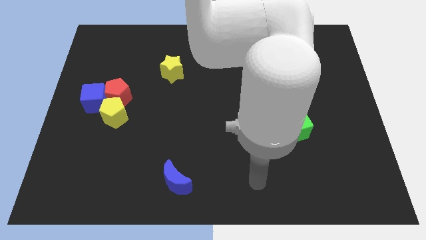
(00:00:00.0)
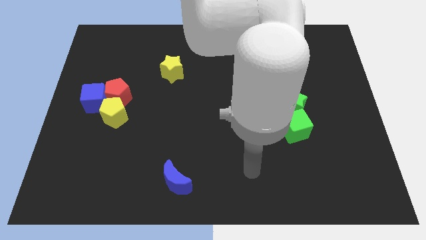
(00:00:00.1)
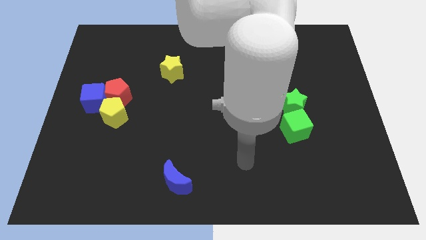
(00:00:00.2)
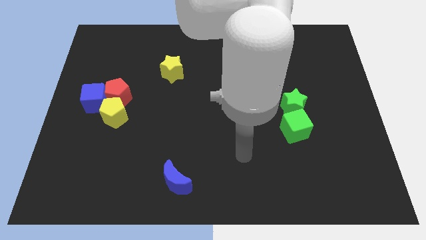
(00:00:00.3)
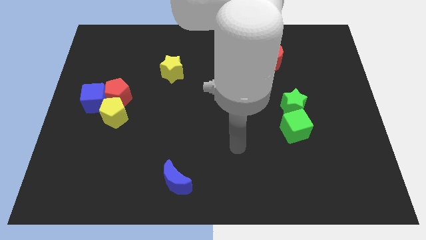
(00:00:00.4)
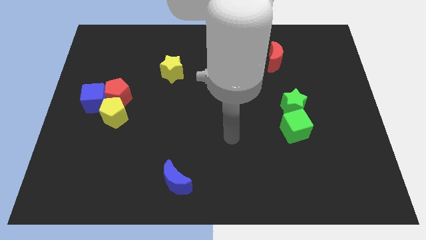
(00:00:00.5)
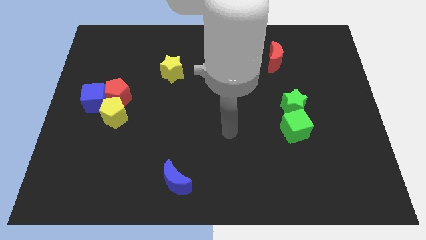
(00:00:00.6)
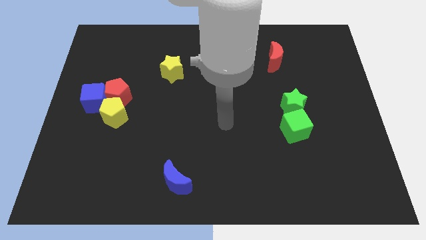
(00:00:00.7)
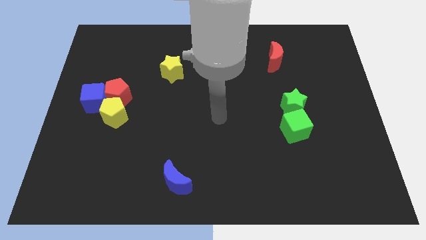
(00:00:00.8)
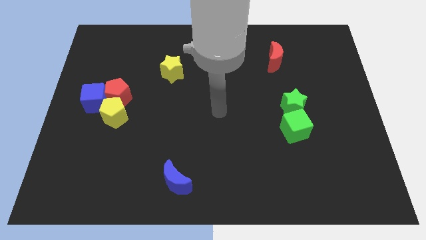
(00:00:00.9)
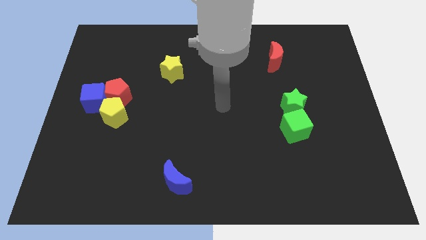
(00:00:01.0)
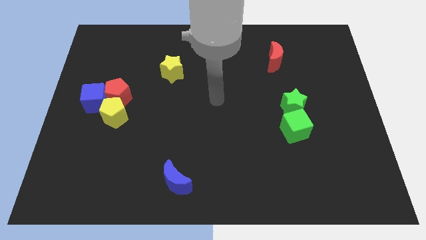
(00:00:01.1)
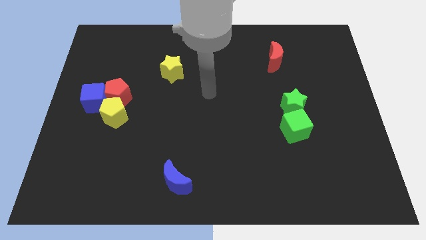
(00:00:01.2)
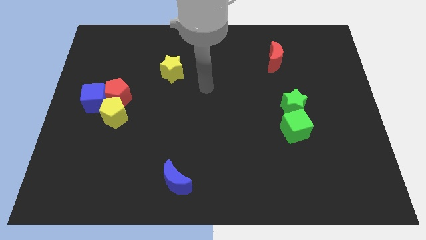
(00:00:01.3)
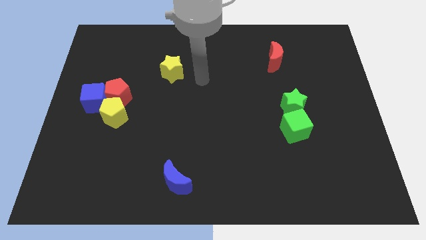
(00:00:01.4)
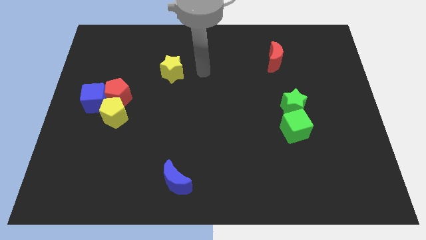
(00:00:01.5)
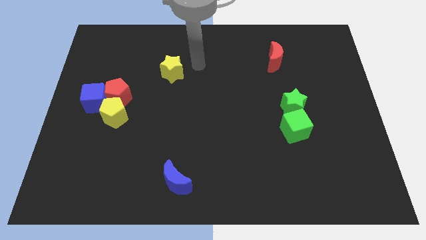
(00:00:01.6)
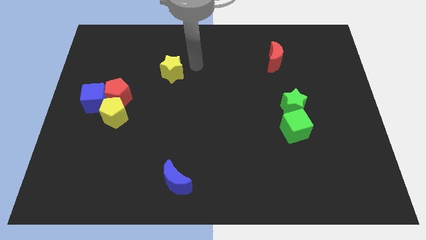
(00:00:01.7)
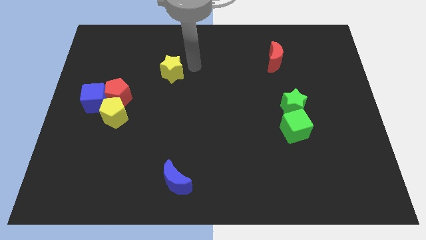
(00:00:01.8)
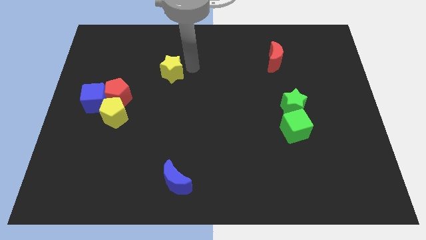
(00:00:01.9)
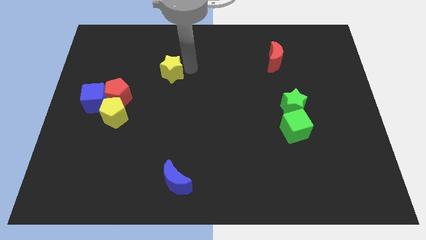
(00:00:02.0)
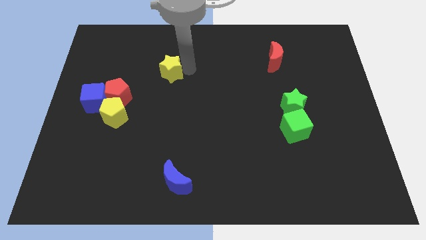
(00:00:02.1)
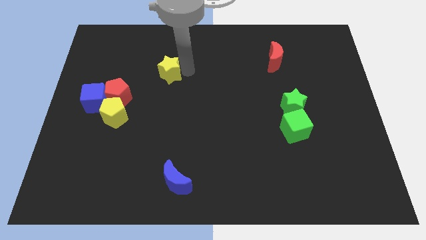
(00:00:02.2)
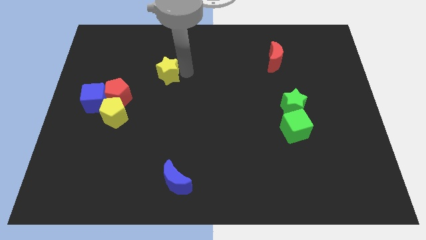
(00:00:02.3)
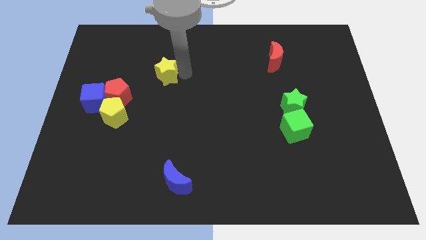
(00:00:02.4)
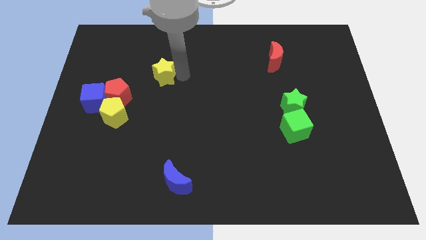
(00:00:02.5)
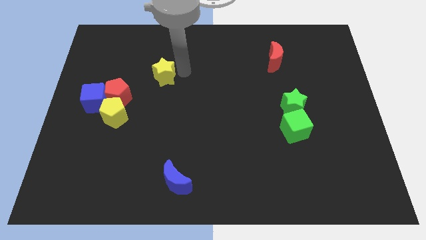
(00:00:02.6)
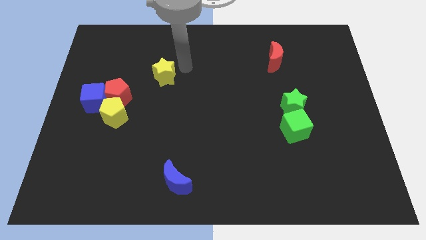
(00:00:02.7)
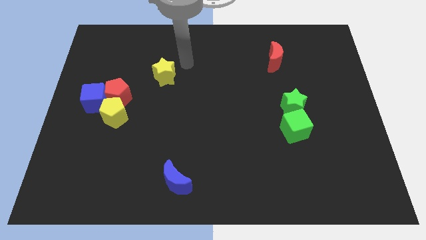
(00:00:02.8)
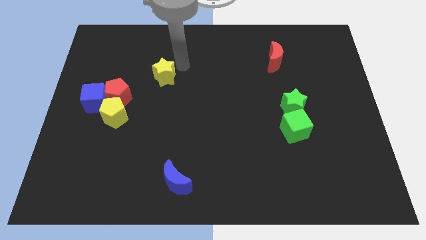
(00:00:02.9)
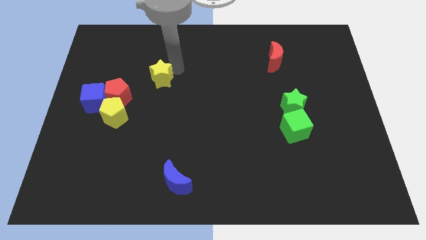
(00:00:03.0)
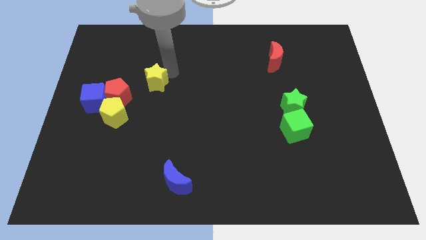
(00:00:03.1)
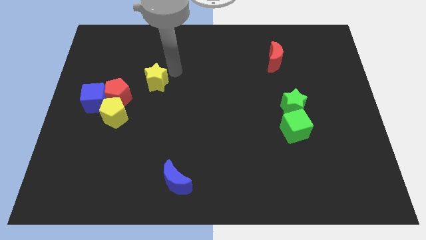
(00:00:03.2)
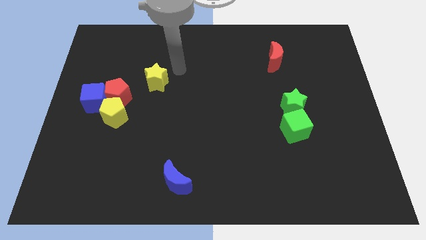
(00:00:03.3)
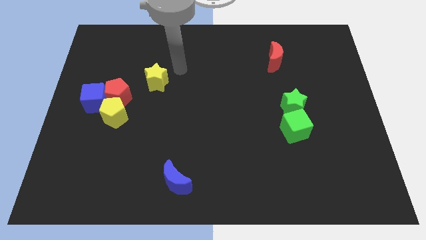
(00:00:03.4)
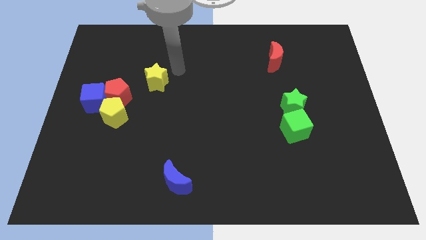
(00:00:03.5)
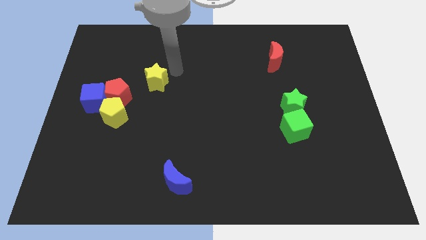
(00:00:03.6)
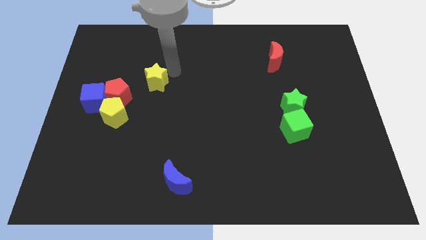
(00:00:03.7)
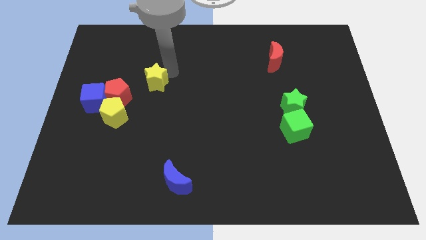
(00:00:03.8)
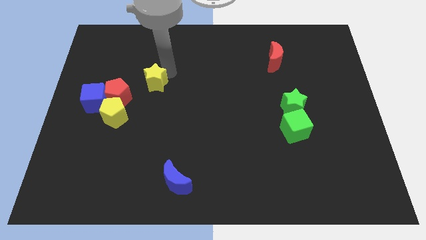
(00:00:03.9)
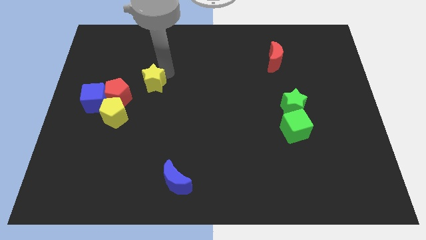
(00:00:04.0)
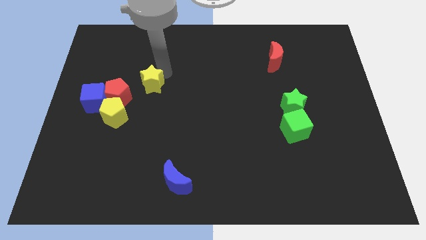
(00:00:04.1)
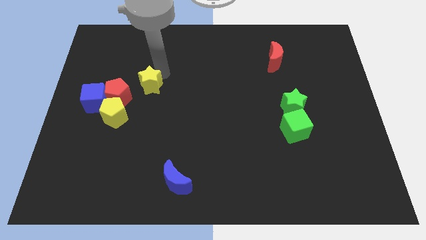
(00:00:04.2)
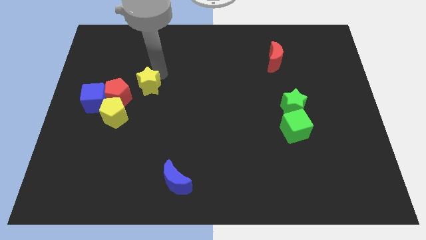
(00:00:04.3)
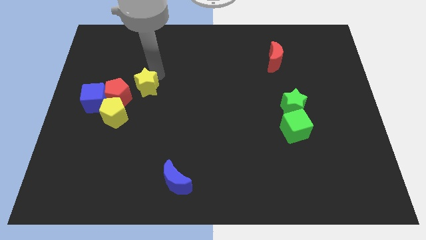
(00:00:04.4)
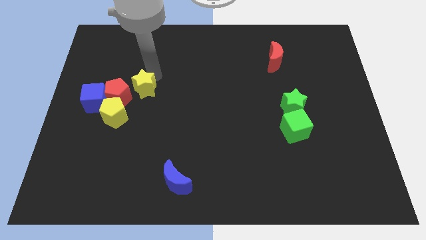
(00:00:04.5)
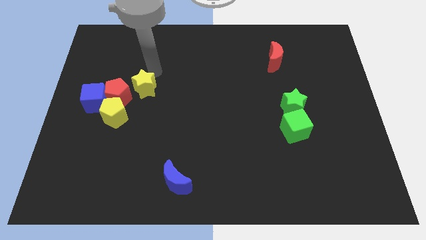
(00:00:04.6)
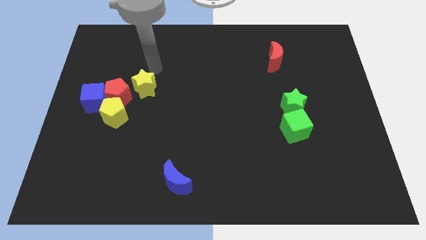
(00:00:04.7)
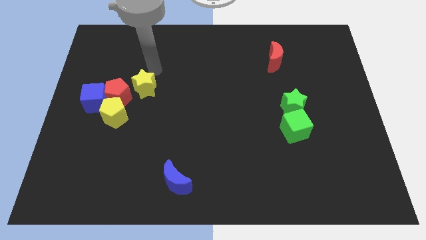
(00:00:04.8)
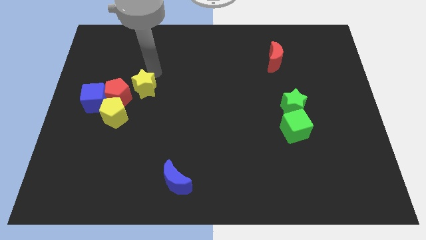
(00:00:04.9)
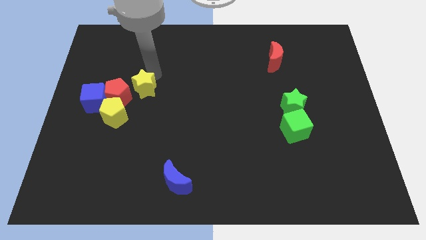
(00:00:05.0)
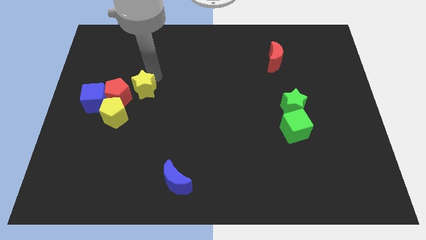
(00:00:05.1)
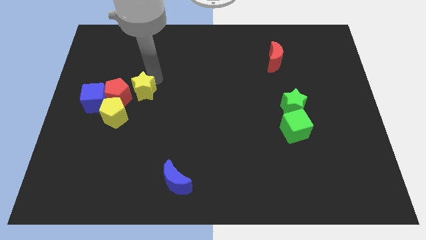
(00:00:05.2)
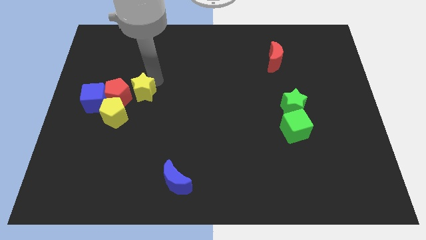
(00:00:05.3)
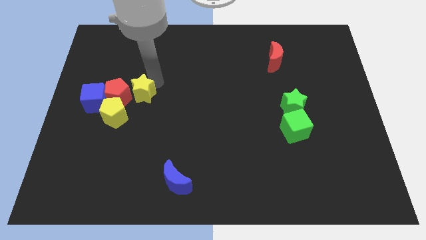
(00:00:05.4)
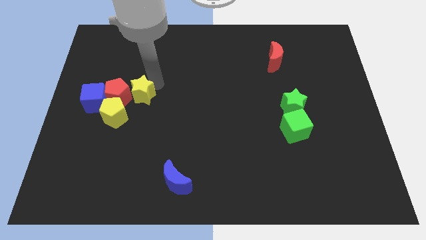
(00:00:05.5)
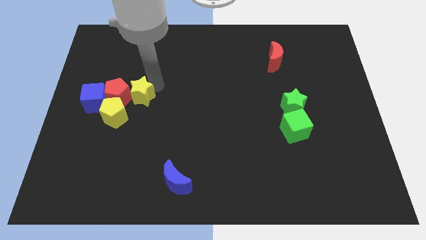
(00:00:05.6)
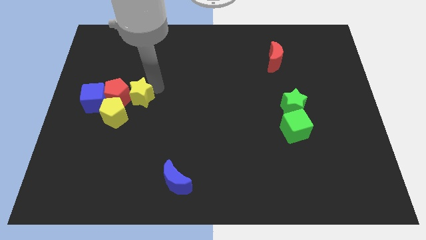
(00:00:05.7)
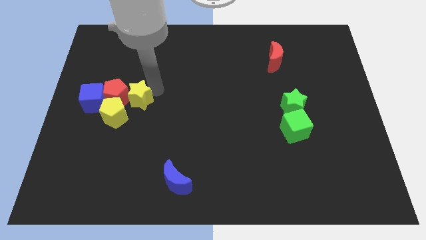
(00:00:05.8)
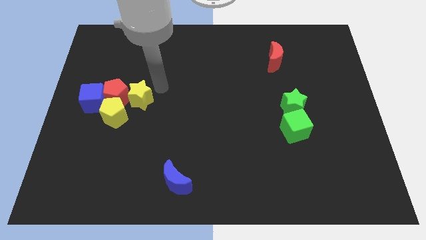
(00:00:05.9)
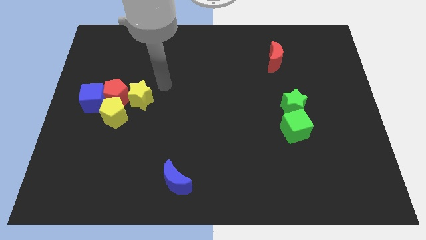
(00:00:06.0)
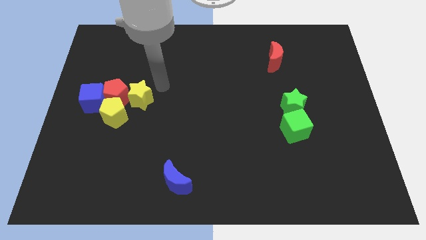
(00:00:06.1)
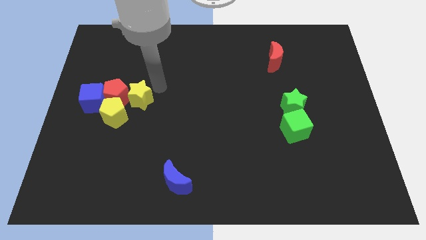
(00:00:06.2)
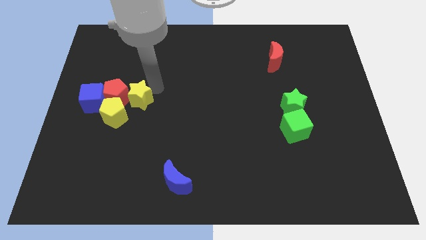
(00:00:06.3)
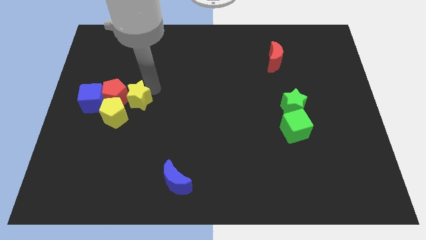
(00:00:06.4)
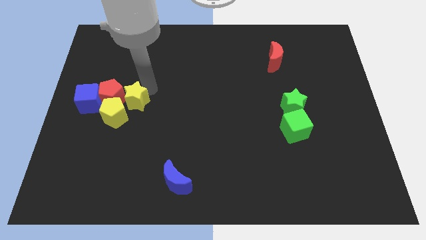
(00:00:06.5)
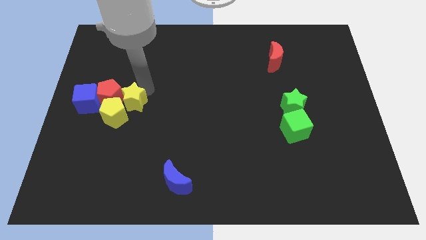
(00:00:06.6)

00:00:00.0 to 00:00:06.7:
slide the yellow star towards the yellow pentagon

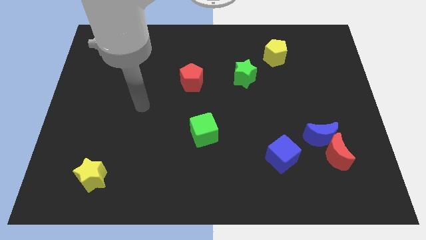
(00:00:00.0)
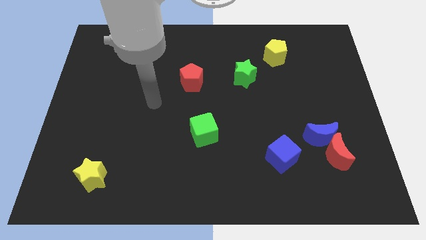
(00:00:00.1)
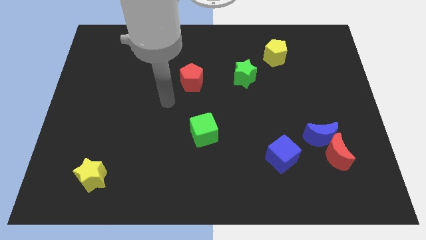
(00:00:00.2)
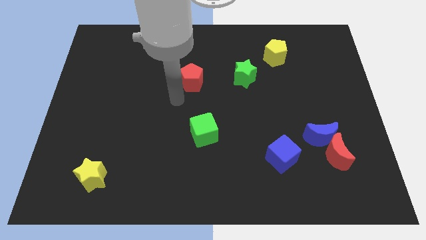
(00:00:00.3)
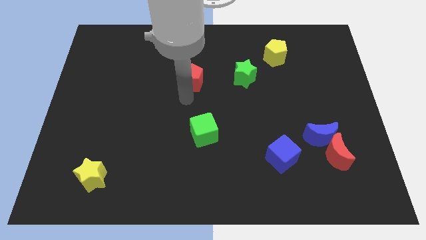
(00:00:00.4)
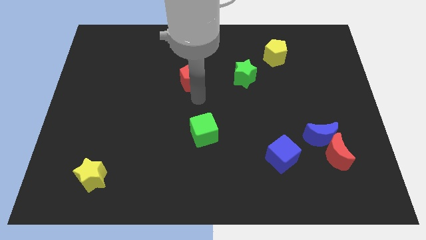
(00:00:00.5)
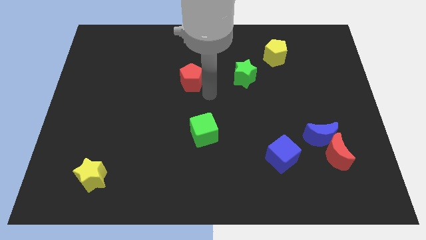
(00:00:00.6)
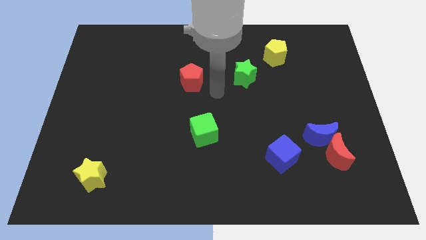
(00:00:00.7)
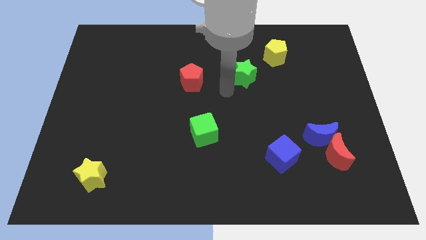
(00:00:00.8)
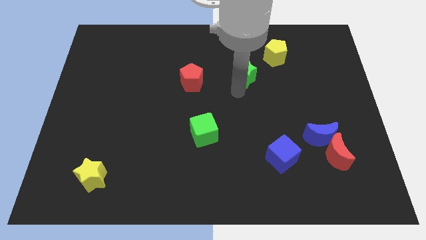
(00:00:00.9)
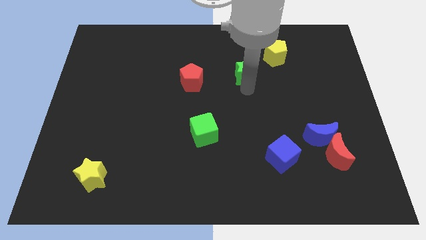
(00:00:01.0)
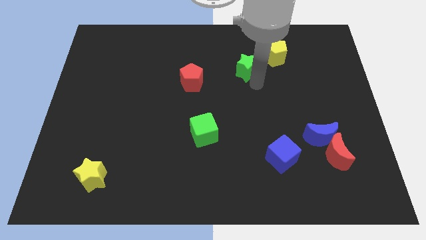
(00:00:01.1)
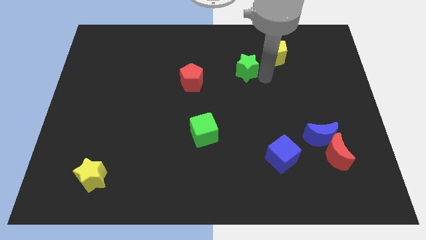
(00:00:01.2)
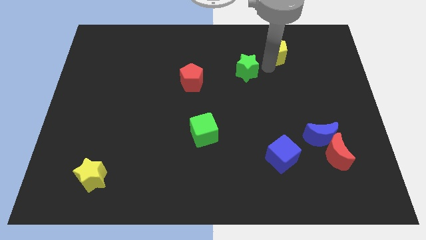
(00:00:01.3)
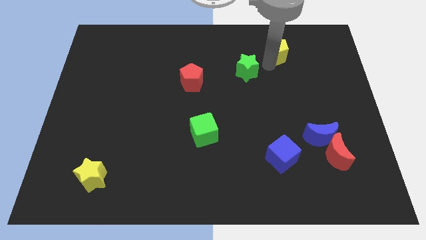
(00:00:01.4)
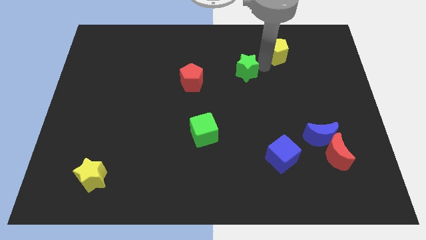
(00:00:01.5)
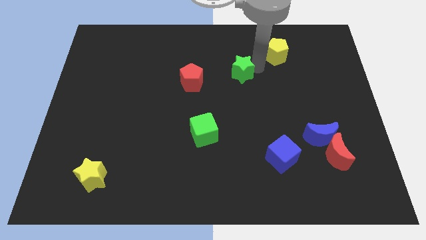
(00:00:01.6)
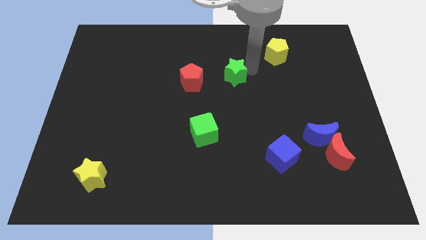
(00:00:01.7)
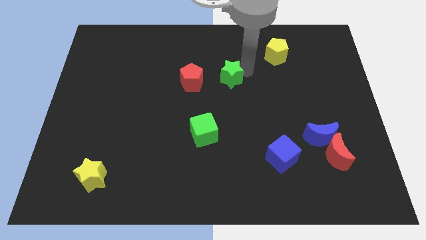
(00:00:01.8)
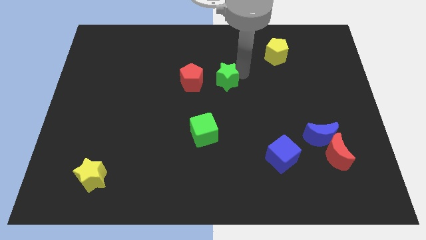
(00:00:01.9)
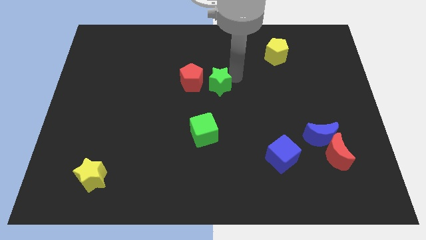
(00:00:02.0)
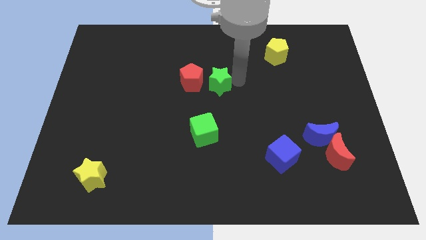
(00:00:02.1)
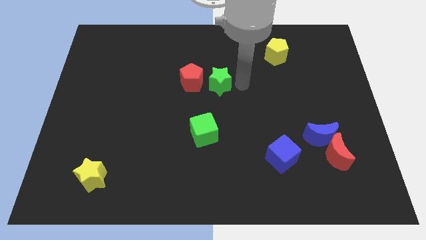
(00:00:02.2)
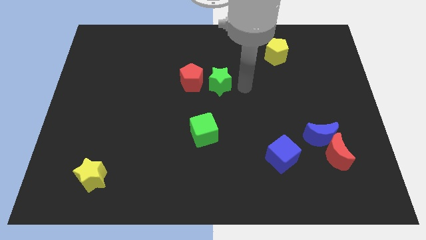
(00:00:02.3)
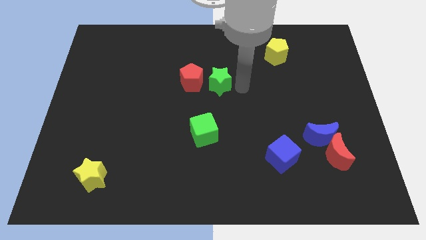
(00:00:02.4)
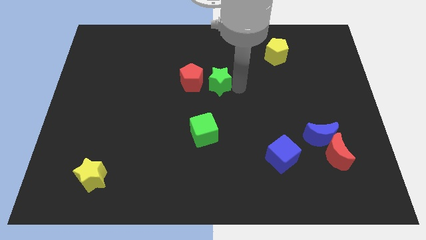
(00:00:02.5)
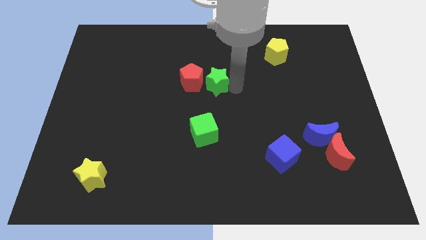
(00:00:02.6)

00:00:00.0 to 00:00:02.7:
put the green star next to the red pentagon
